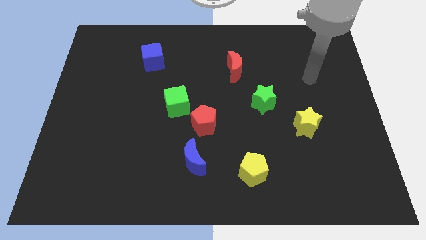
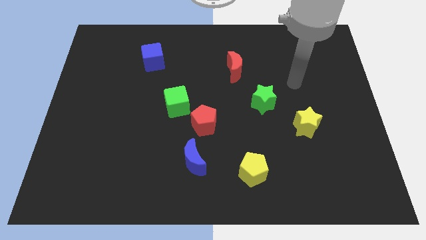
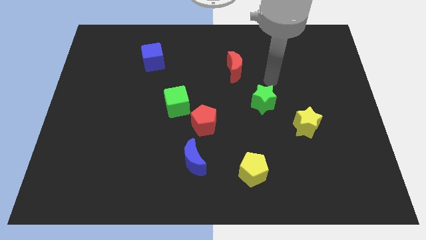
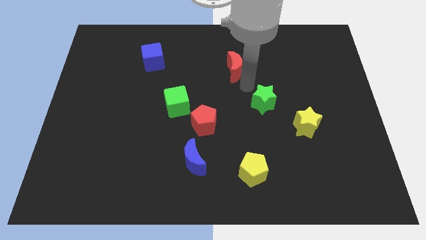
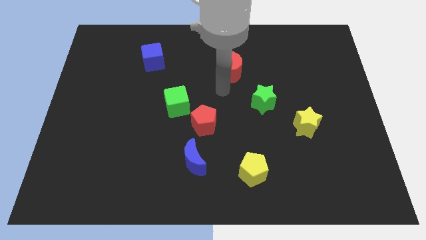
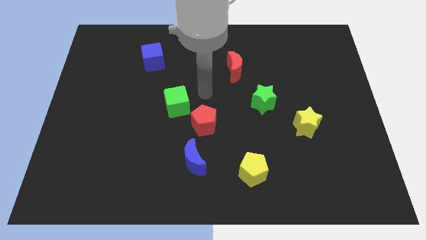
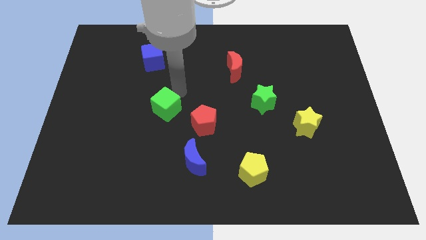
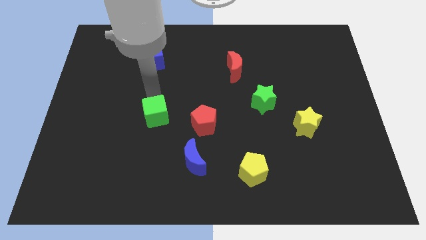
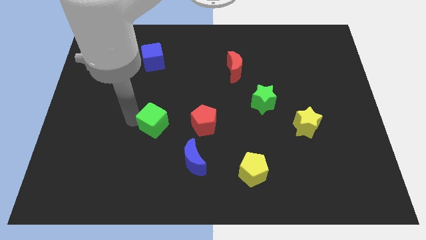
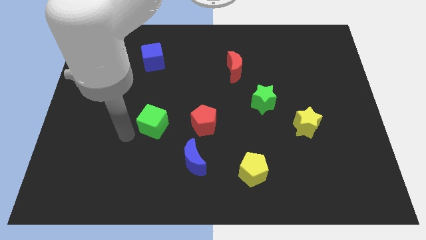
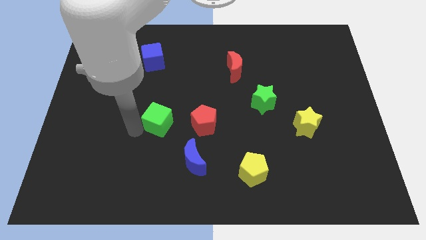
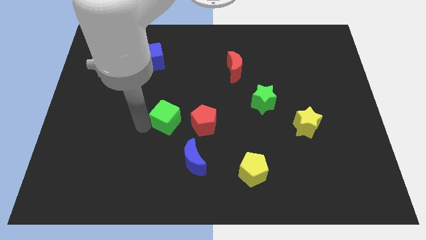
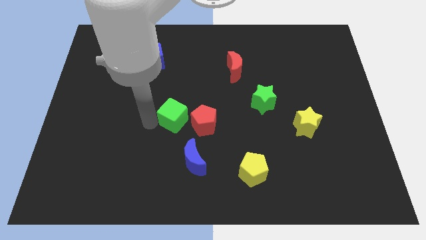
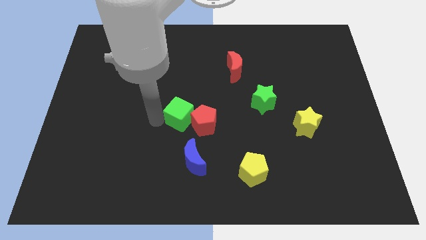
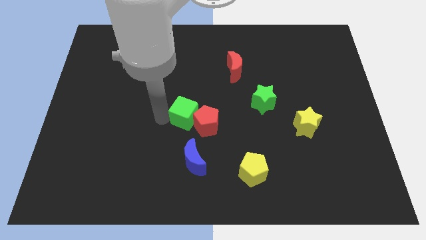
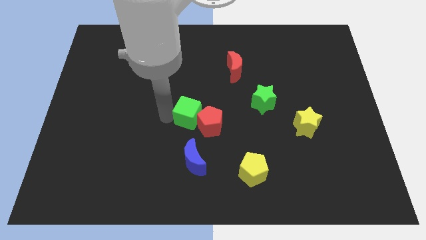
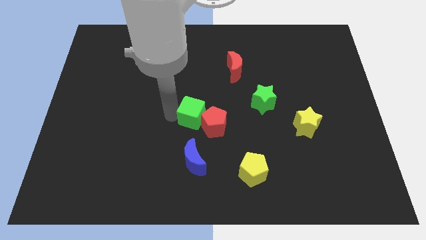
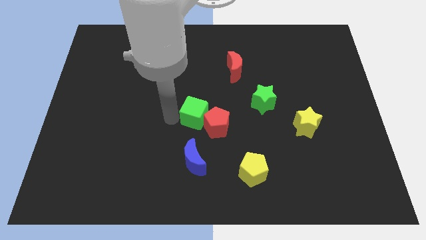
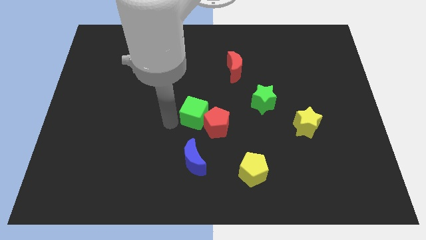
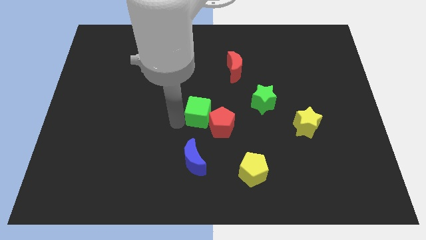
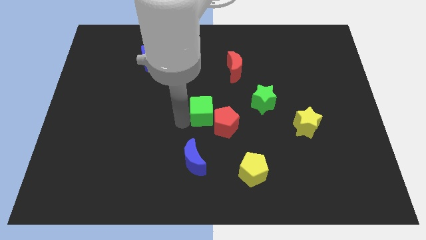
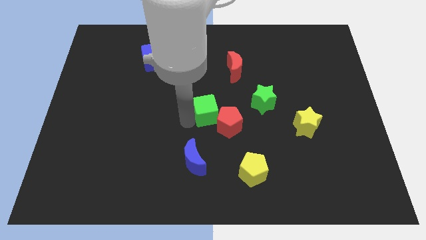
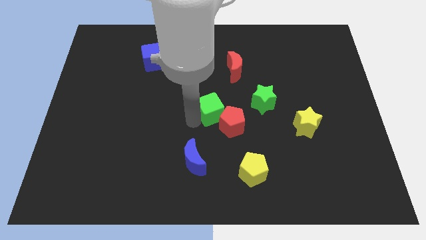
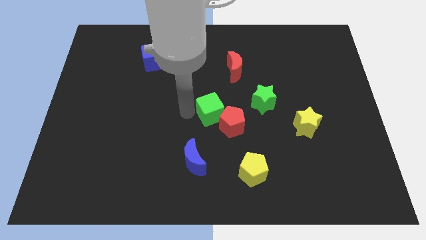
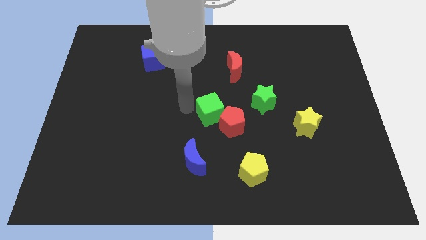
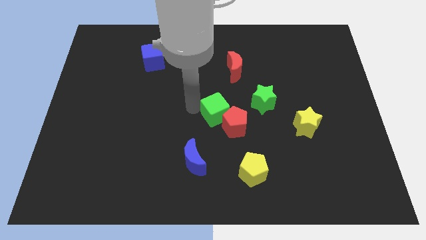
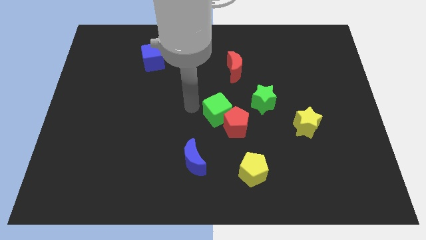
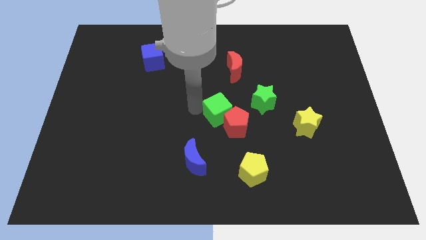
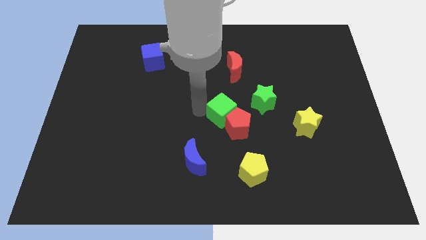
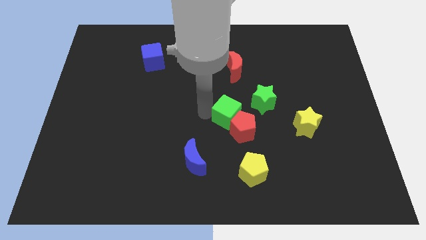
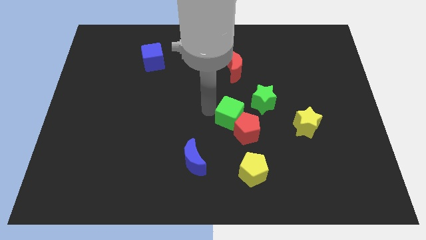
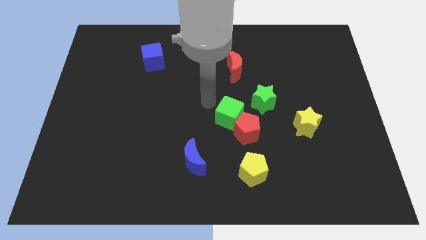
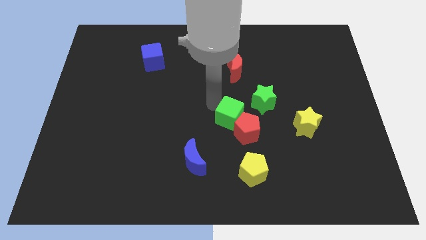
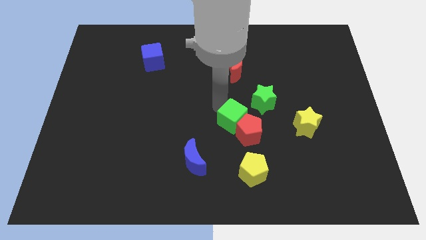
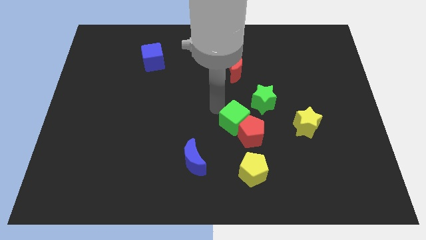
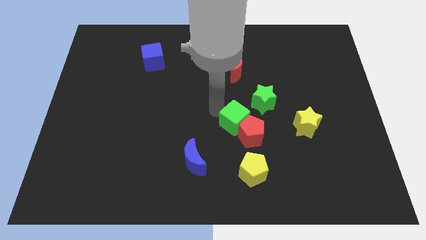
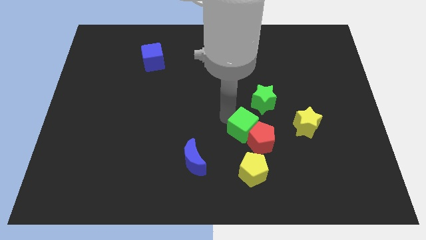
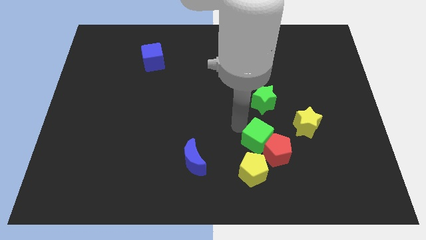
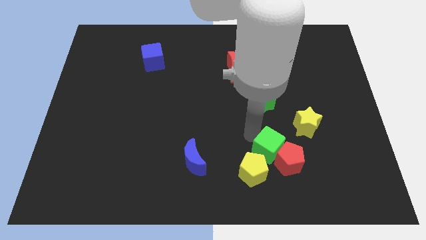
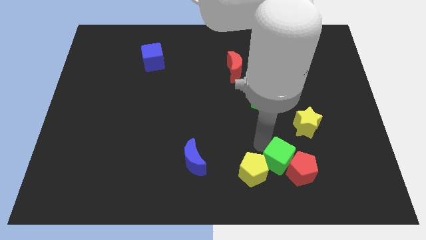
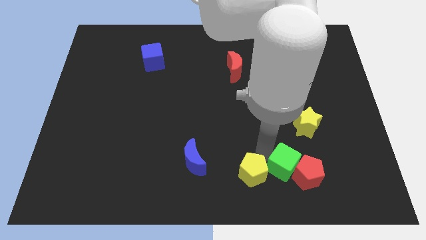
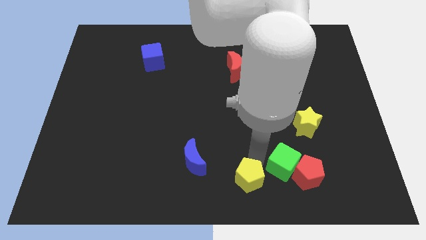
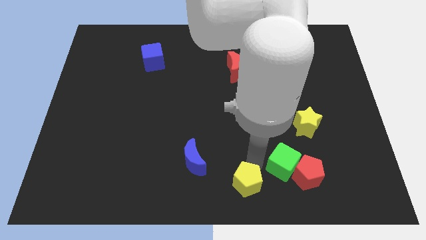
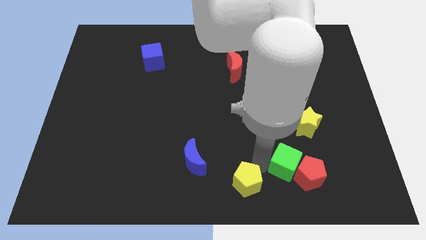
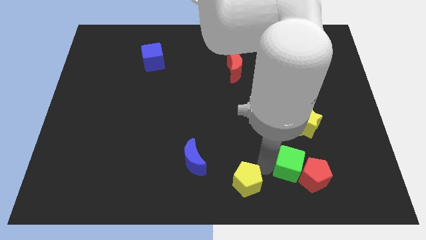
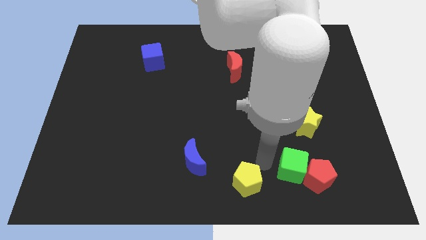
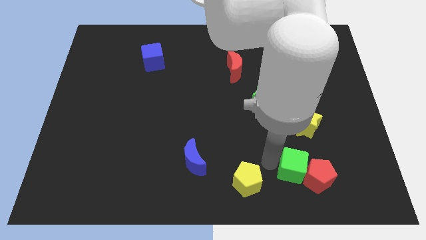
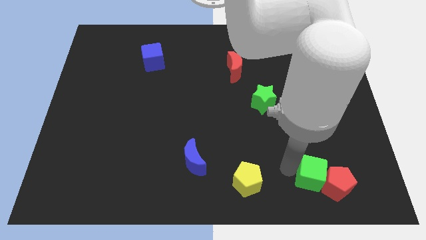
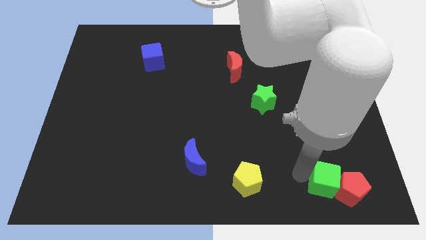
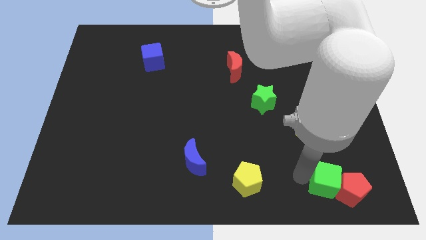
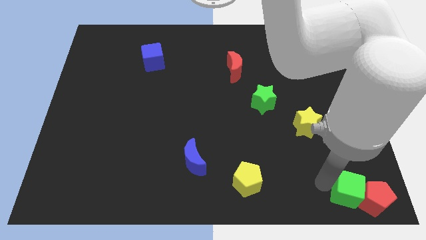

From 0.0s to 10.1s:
slide the green cube to the lower right corner

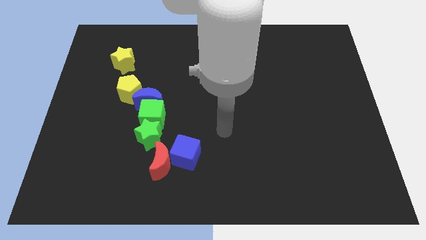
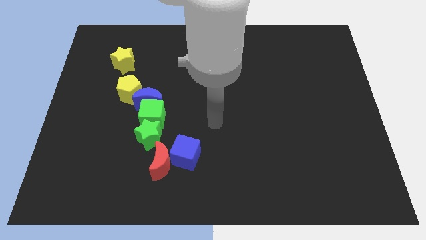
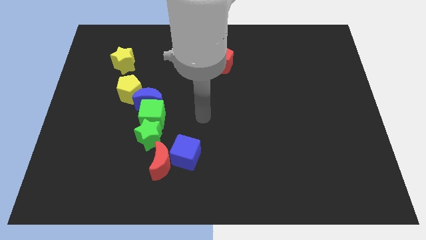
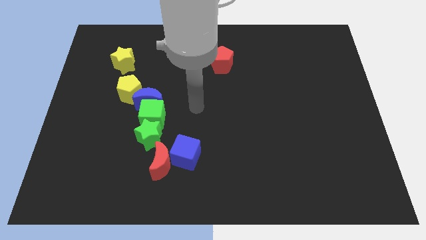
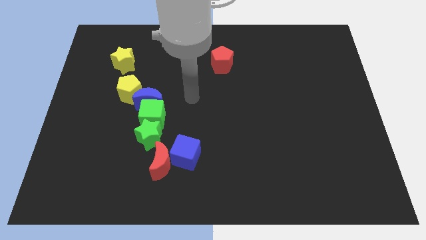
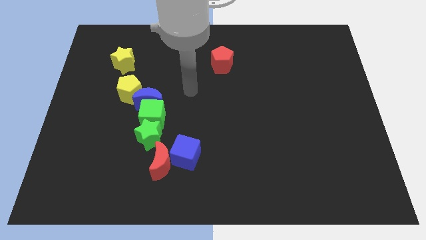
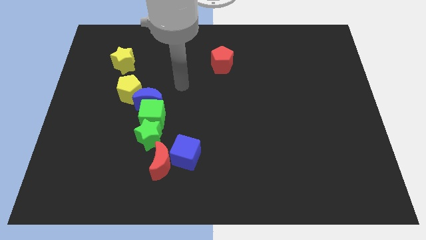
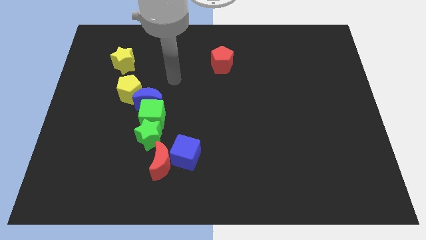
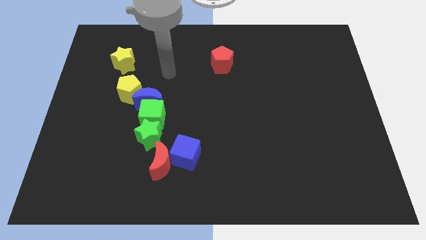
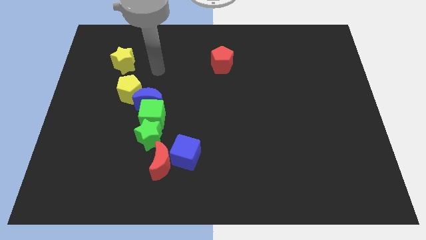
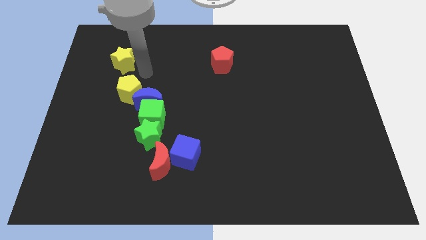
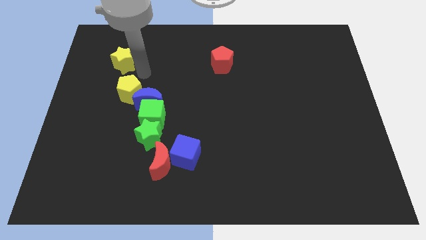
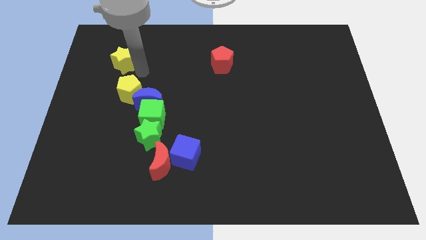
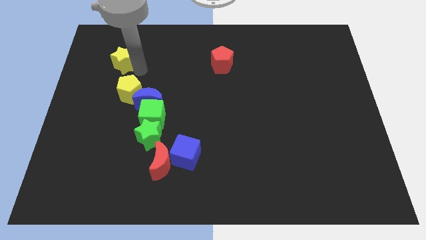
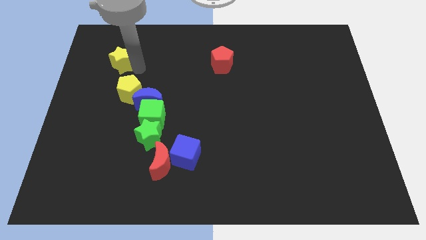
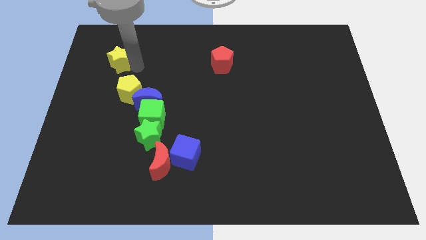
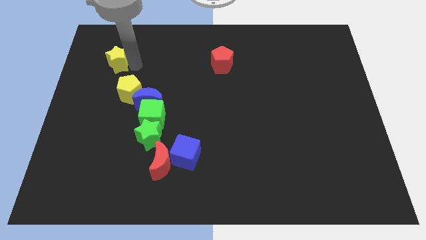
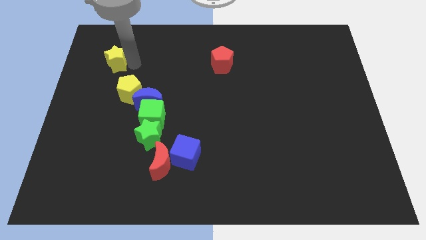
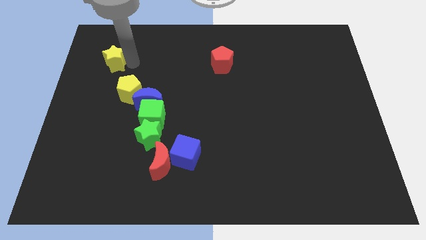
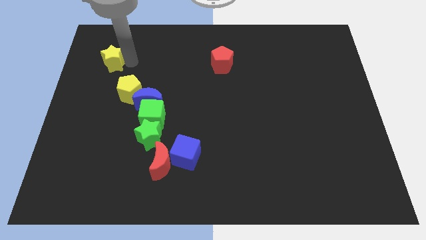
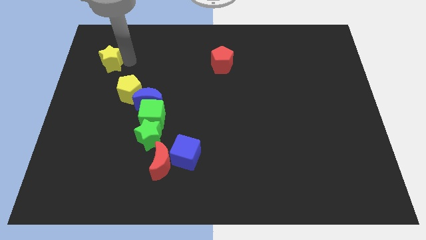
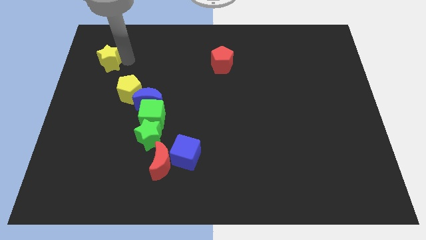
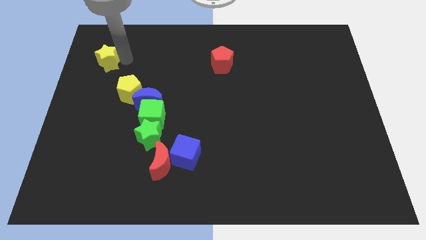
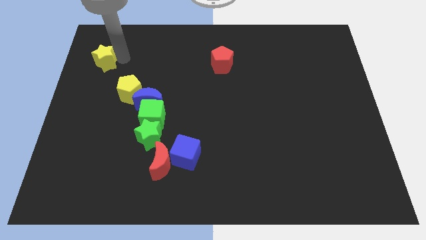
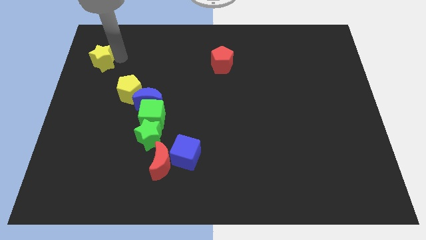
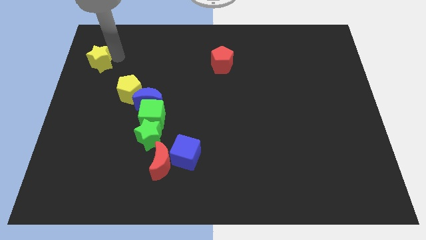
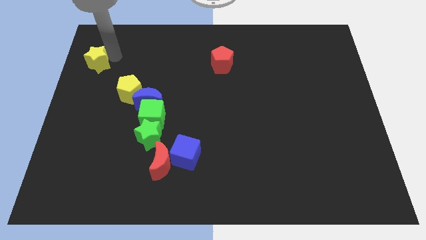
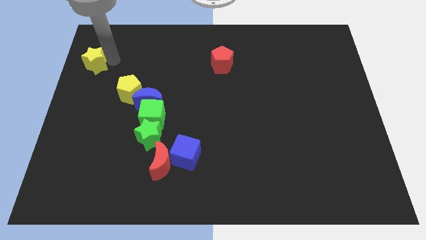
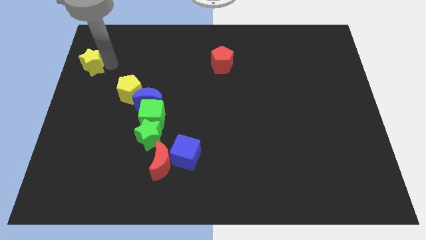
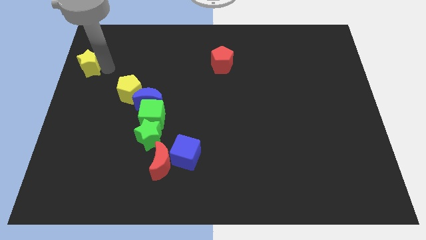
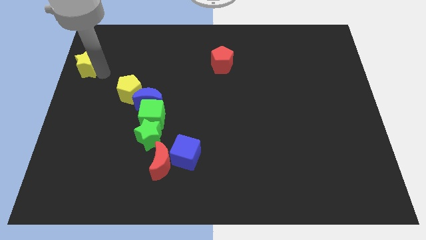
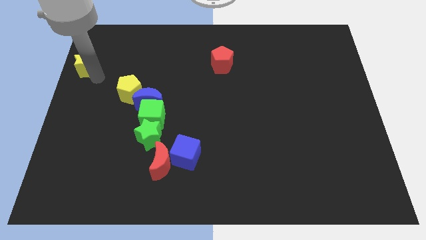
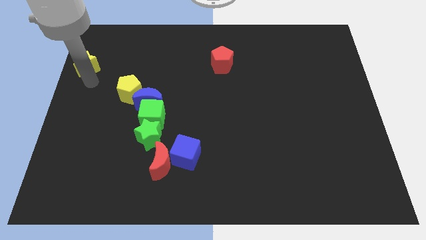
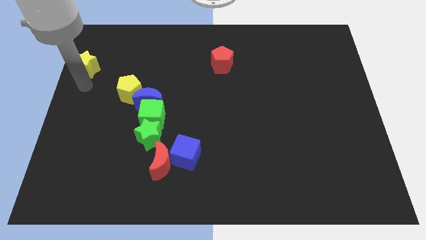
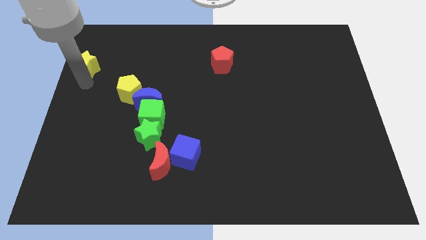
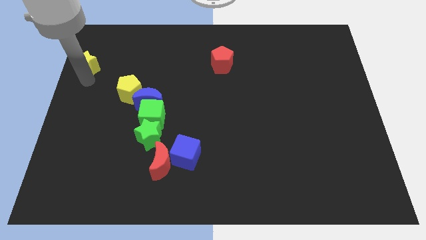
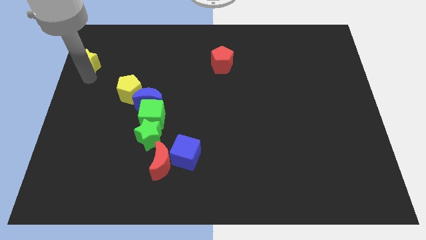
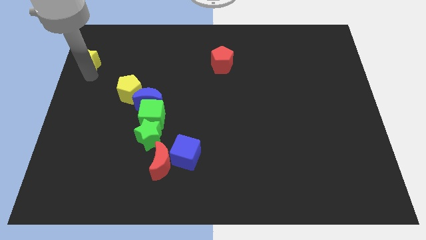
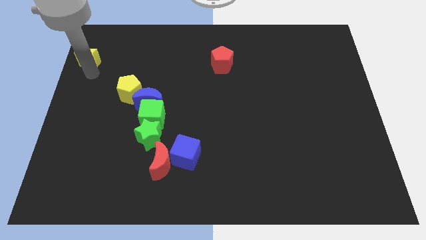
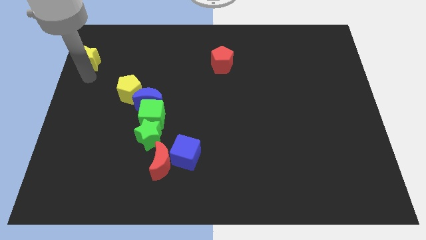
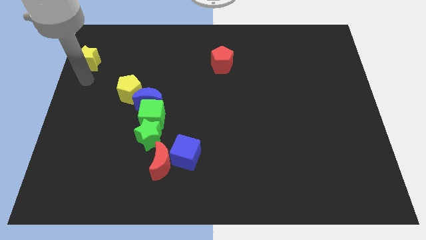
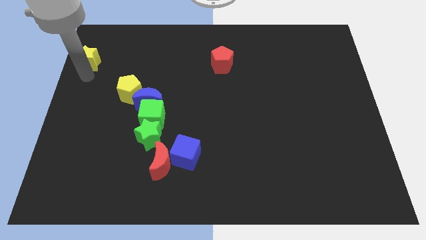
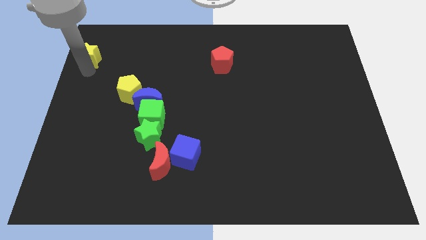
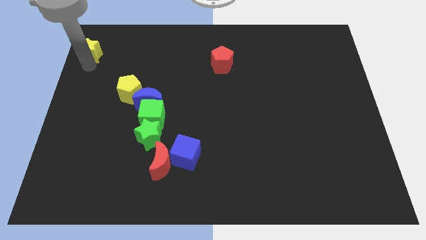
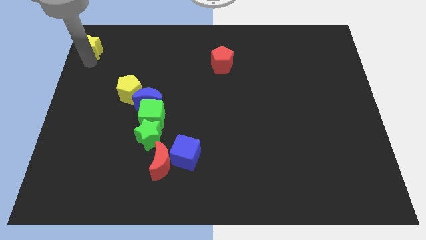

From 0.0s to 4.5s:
push the yellow star to the top left corner
